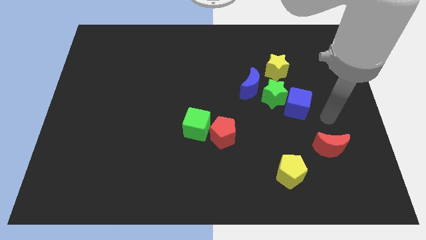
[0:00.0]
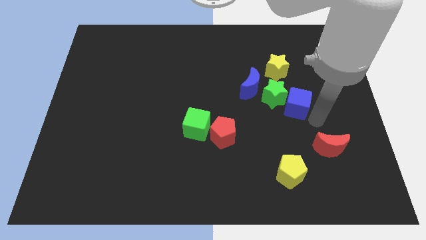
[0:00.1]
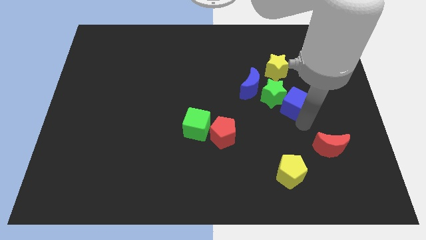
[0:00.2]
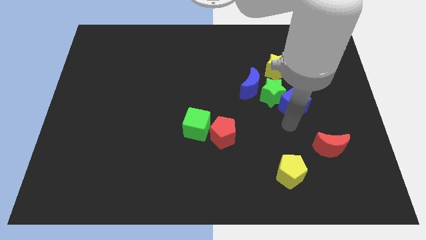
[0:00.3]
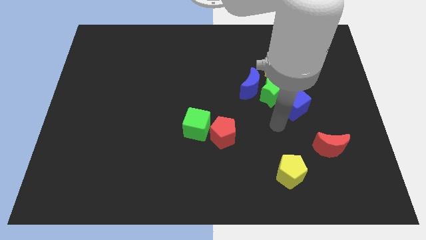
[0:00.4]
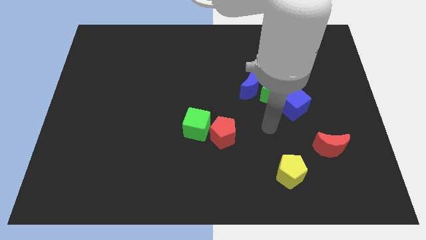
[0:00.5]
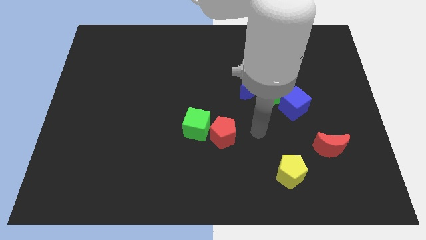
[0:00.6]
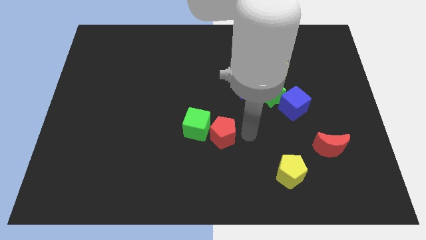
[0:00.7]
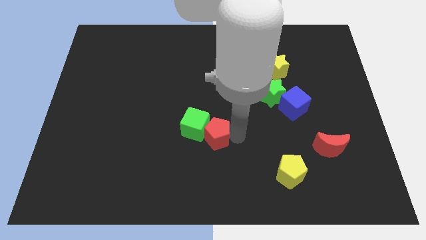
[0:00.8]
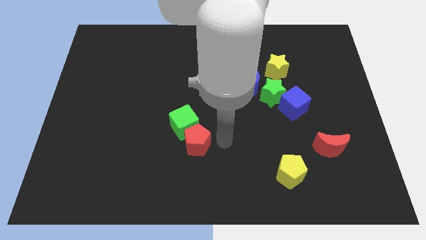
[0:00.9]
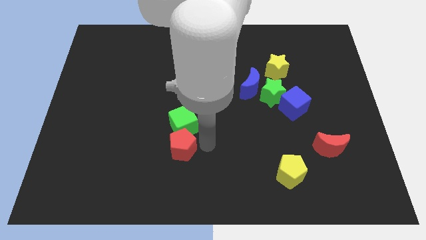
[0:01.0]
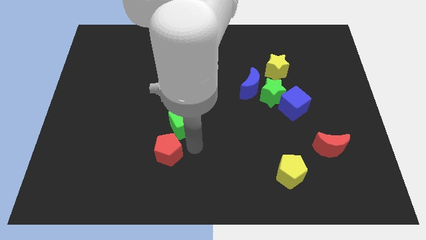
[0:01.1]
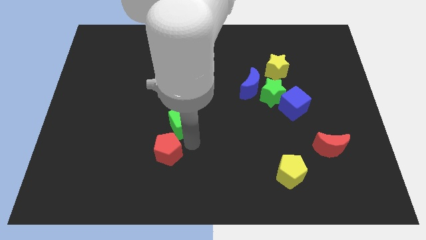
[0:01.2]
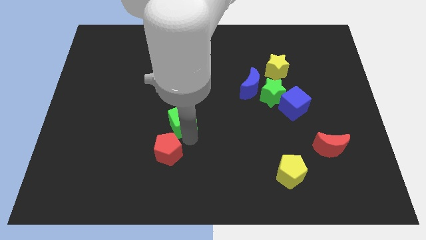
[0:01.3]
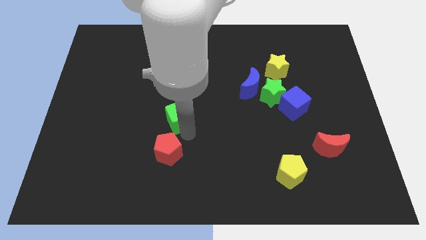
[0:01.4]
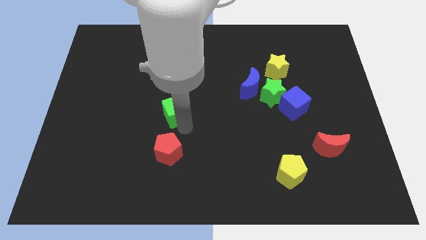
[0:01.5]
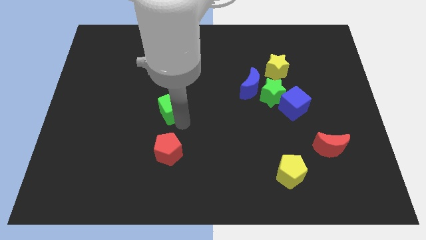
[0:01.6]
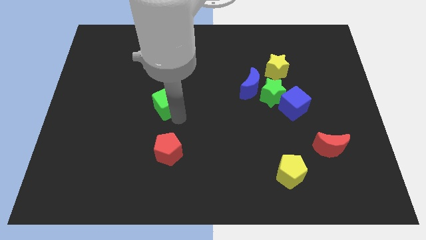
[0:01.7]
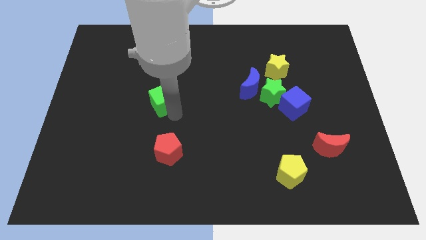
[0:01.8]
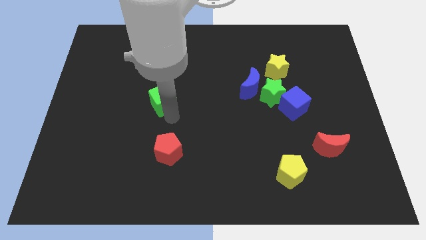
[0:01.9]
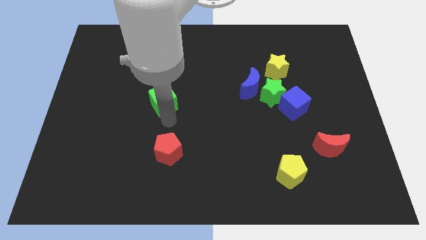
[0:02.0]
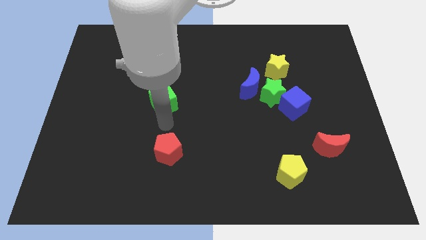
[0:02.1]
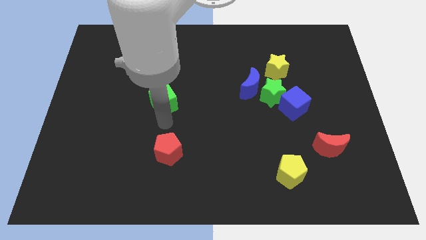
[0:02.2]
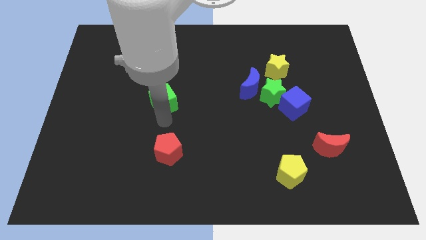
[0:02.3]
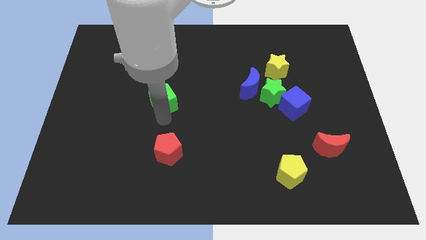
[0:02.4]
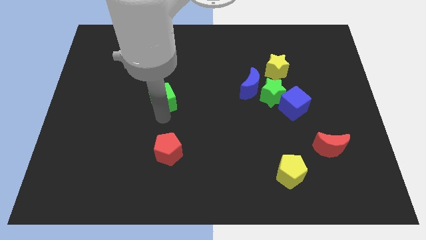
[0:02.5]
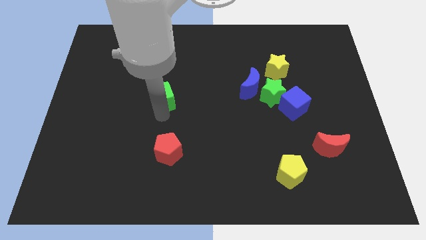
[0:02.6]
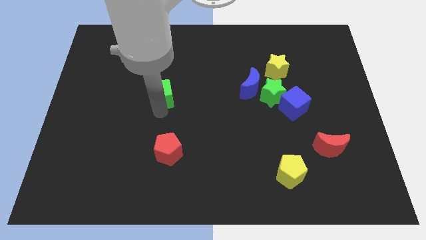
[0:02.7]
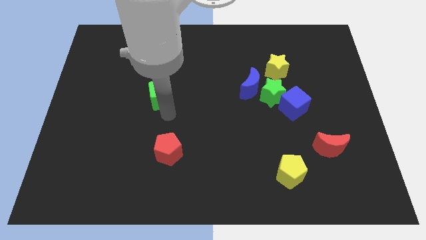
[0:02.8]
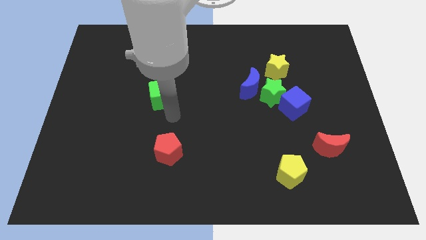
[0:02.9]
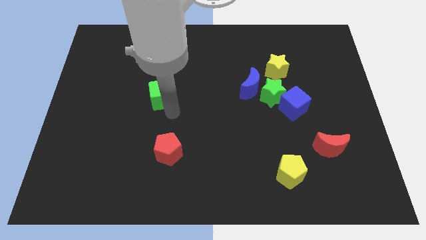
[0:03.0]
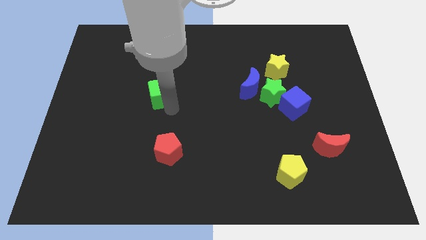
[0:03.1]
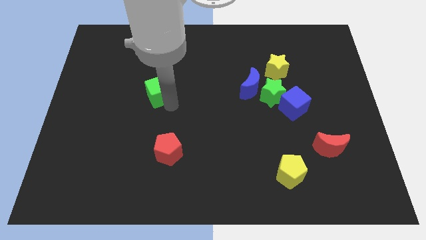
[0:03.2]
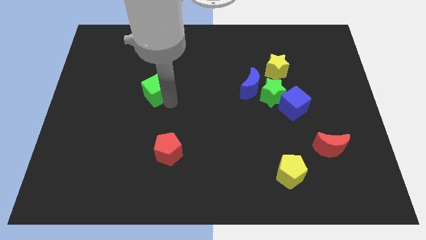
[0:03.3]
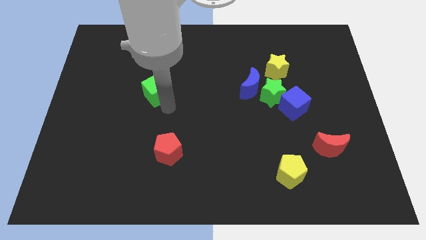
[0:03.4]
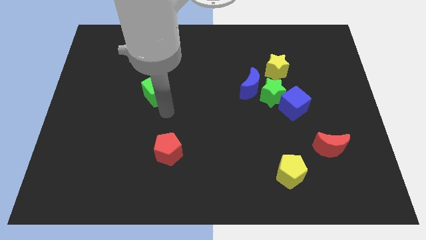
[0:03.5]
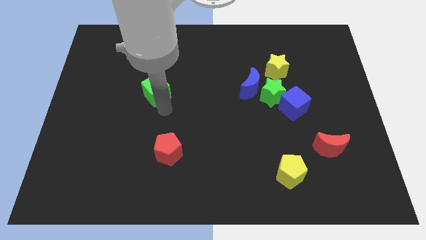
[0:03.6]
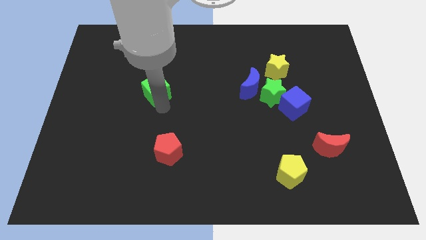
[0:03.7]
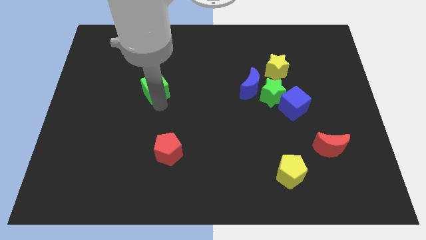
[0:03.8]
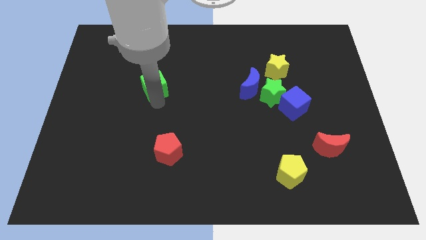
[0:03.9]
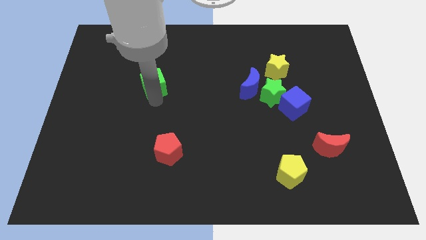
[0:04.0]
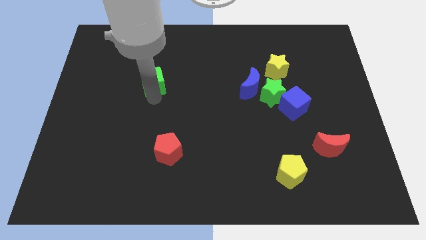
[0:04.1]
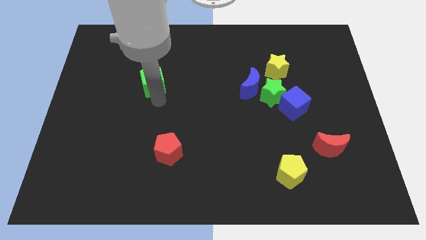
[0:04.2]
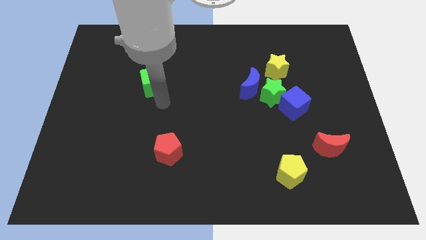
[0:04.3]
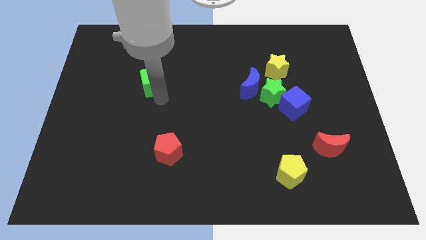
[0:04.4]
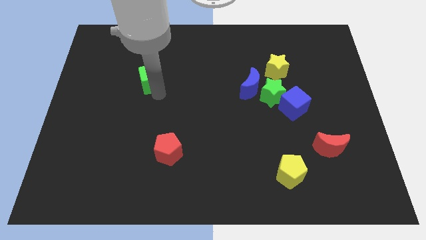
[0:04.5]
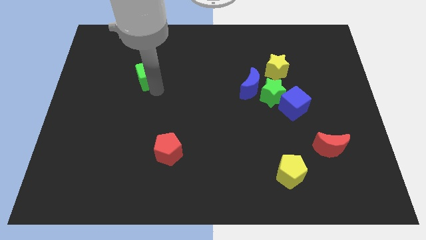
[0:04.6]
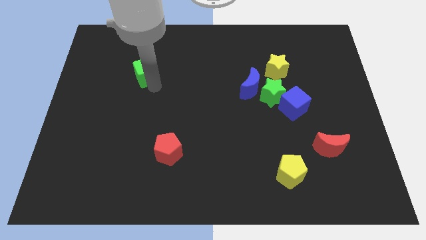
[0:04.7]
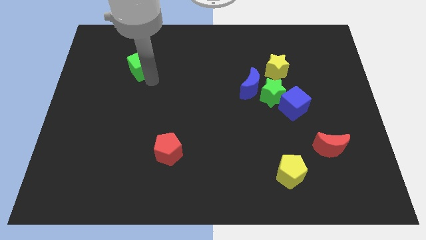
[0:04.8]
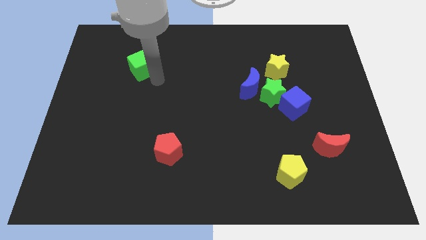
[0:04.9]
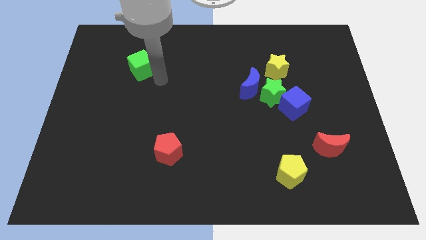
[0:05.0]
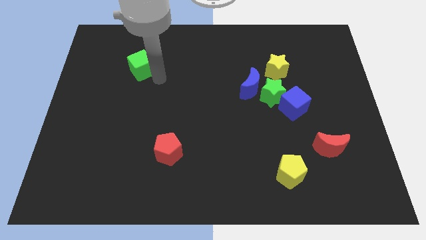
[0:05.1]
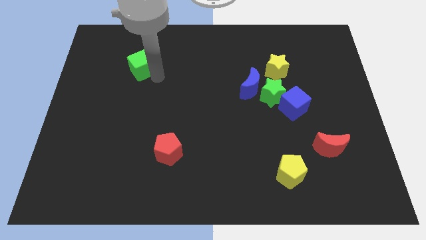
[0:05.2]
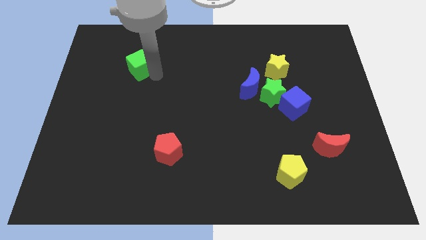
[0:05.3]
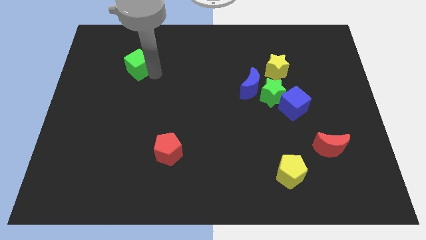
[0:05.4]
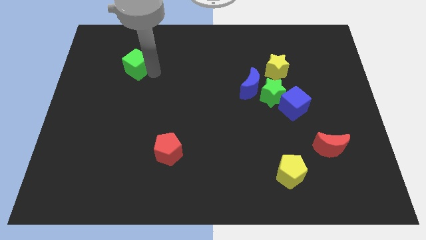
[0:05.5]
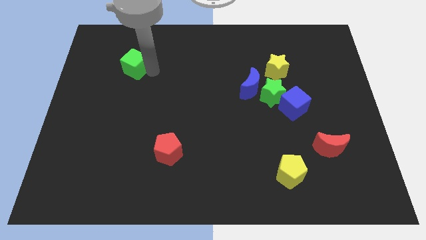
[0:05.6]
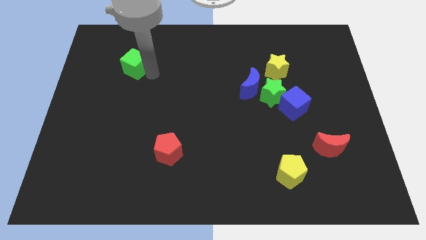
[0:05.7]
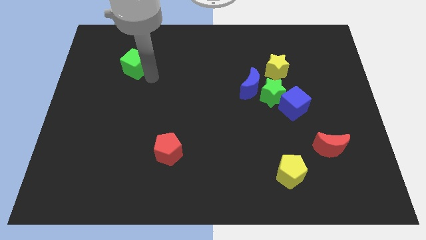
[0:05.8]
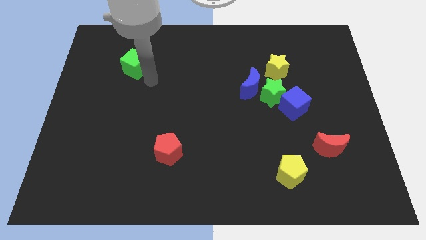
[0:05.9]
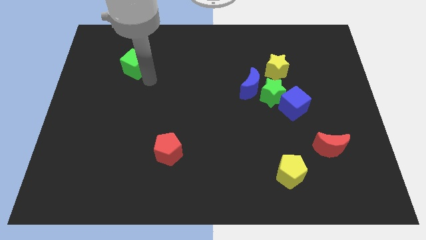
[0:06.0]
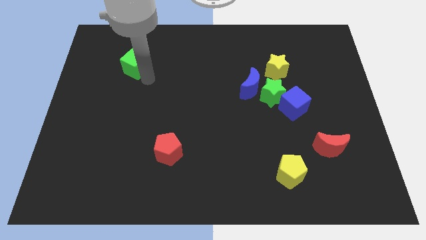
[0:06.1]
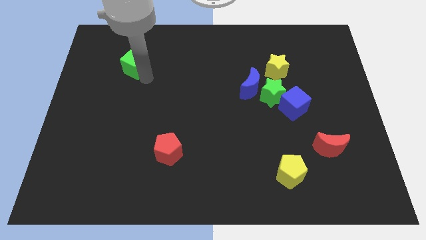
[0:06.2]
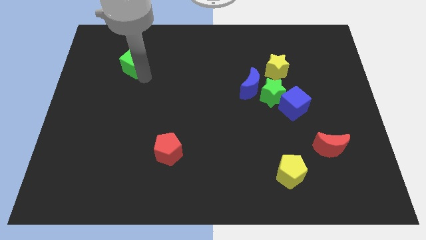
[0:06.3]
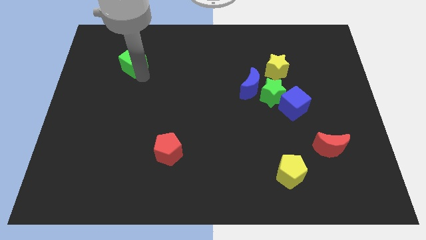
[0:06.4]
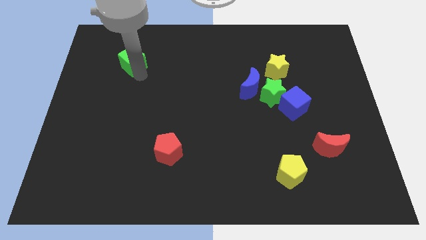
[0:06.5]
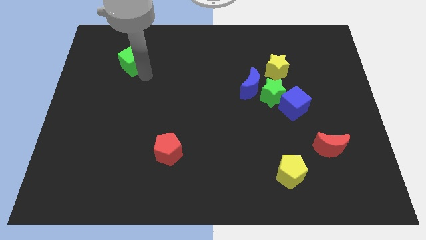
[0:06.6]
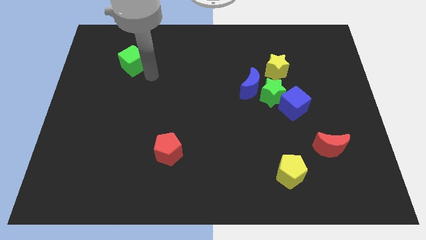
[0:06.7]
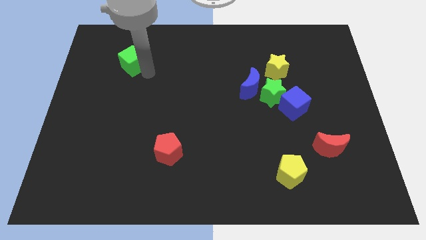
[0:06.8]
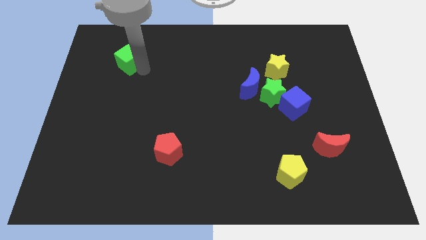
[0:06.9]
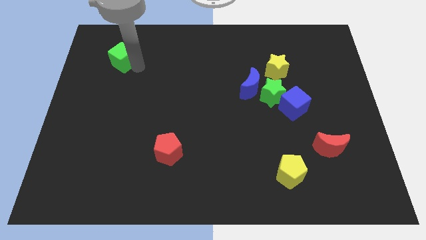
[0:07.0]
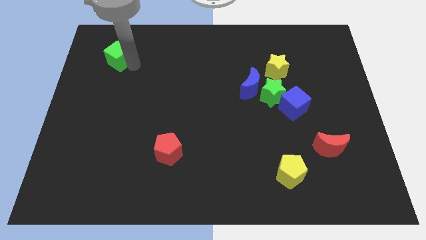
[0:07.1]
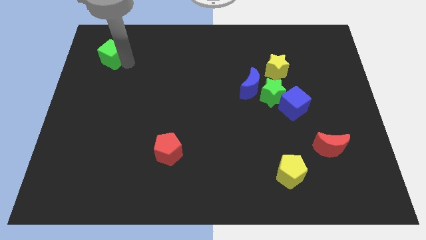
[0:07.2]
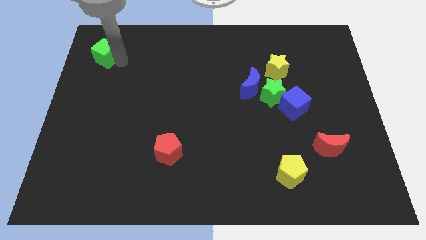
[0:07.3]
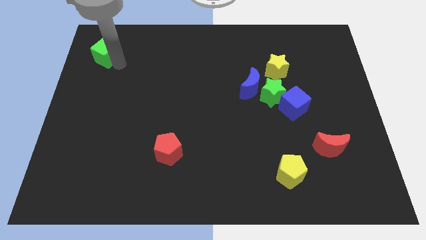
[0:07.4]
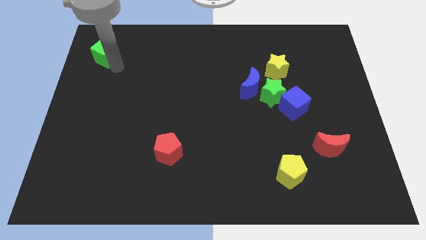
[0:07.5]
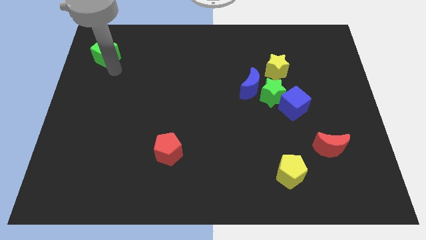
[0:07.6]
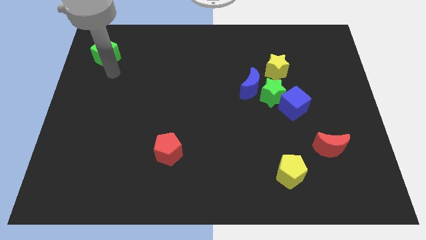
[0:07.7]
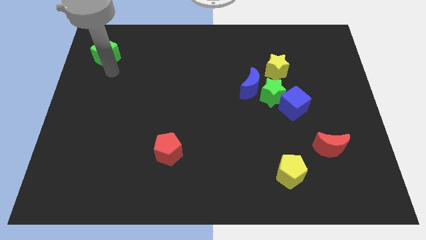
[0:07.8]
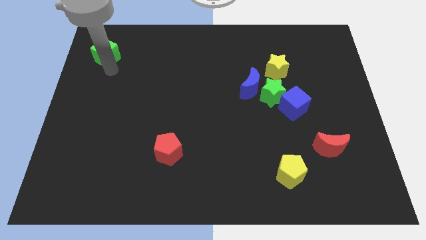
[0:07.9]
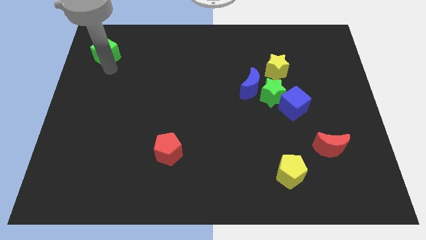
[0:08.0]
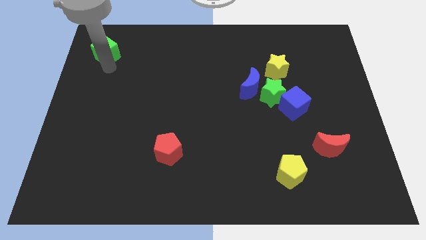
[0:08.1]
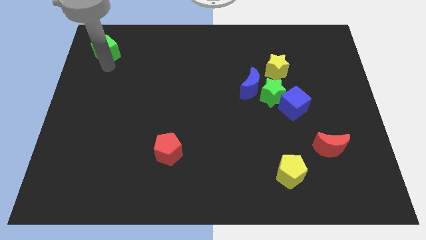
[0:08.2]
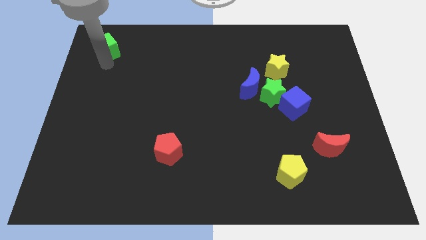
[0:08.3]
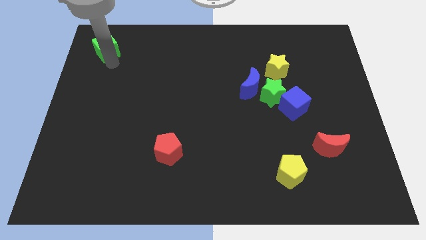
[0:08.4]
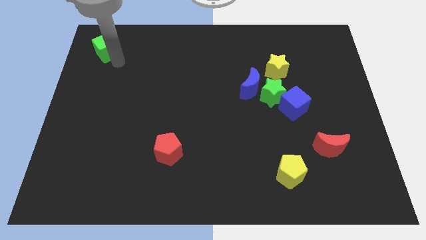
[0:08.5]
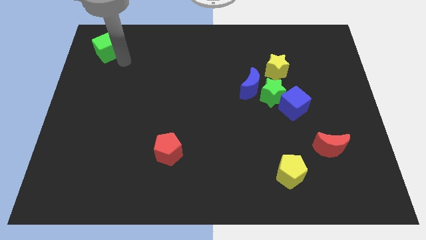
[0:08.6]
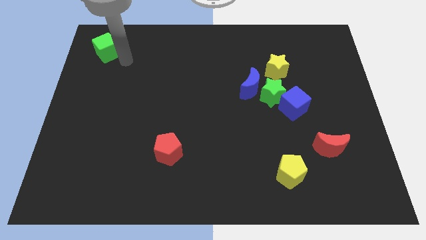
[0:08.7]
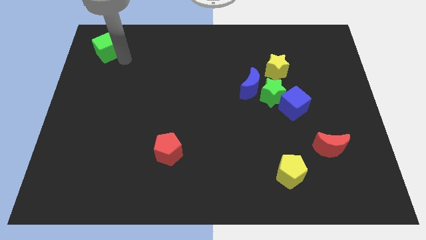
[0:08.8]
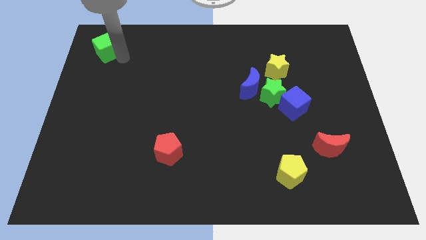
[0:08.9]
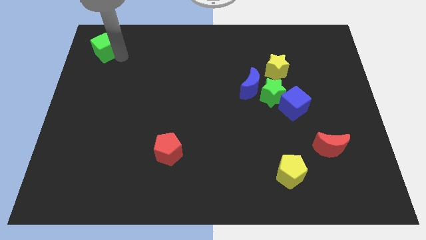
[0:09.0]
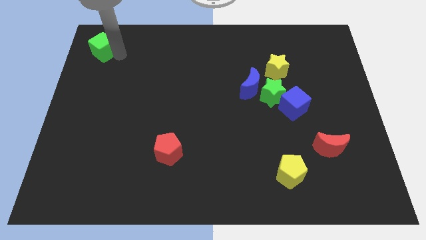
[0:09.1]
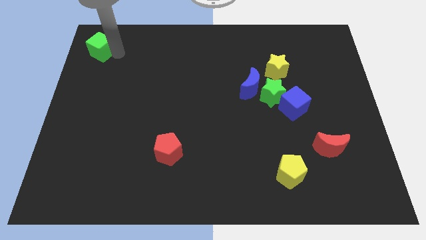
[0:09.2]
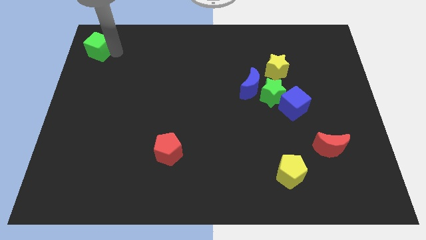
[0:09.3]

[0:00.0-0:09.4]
move the green cube to the upper left corner
